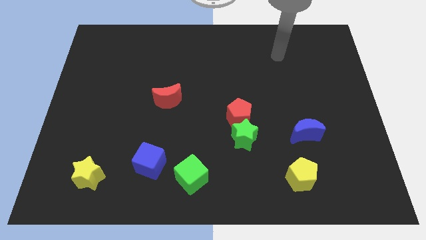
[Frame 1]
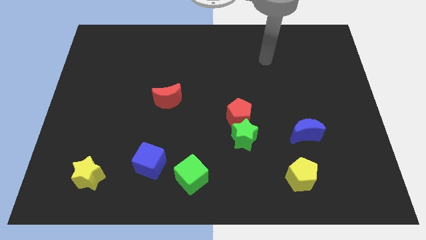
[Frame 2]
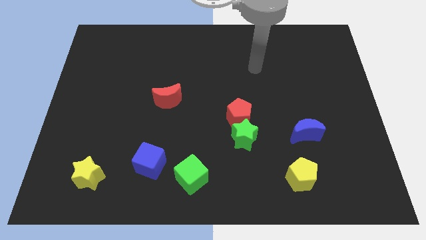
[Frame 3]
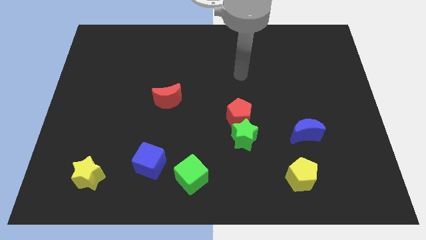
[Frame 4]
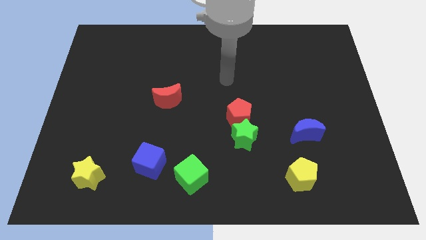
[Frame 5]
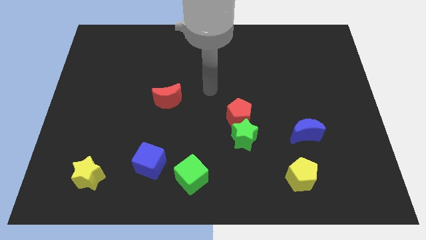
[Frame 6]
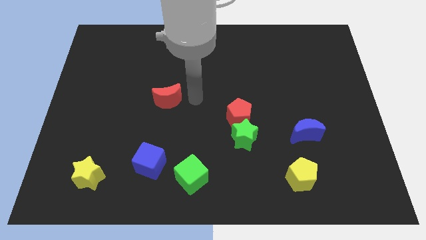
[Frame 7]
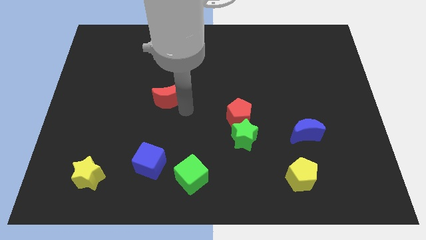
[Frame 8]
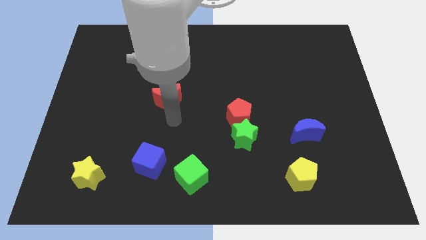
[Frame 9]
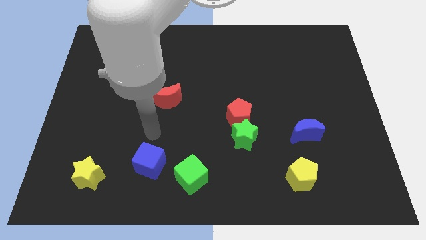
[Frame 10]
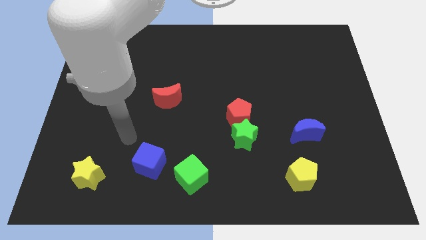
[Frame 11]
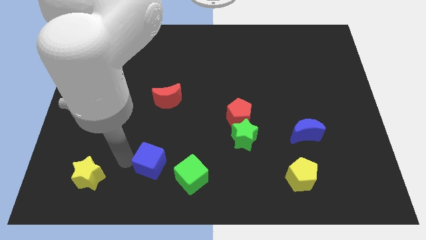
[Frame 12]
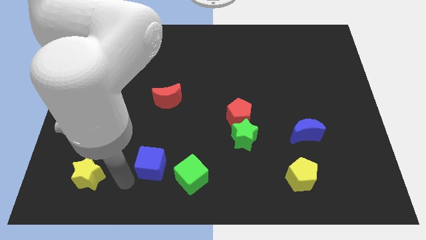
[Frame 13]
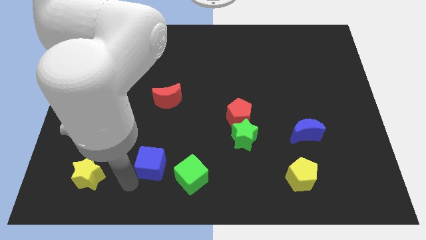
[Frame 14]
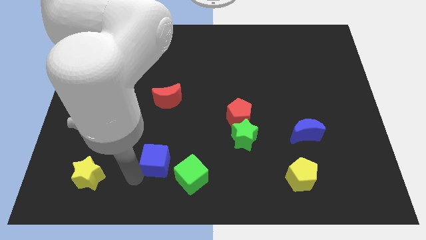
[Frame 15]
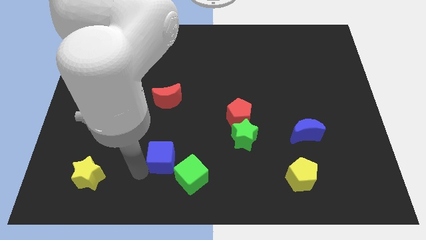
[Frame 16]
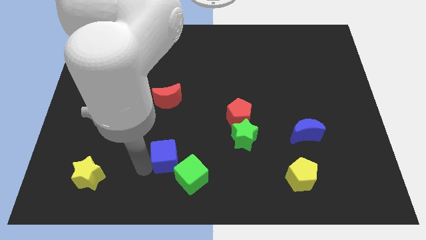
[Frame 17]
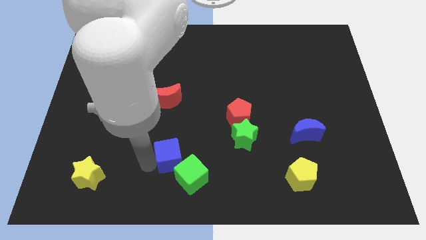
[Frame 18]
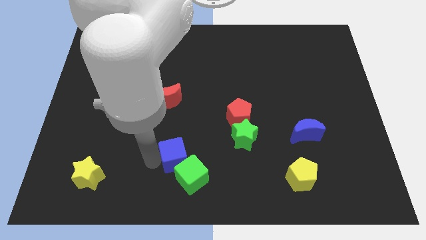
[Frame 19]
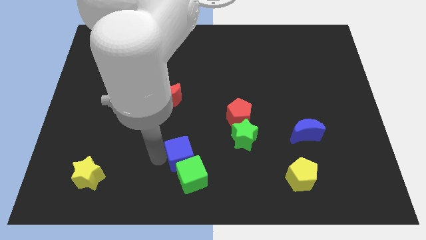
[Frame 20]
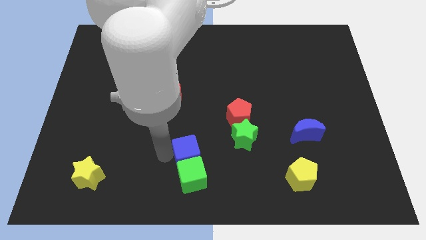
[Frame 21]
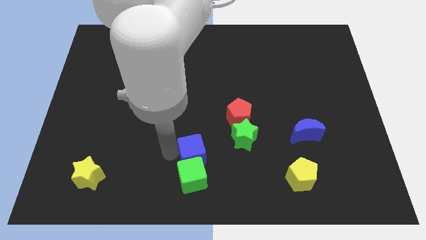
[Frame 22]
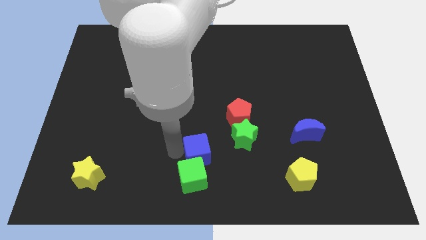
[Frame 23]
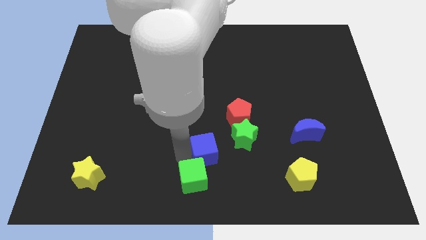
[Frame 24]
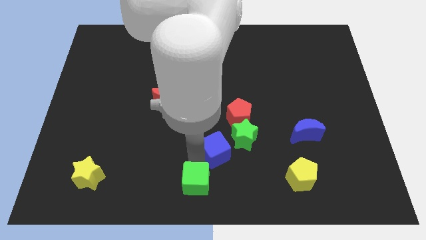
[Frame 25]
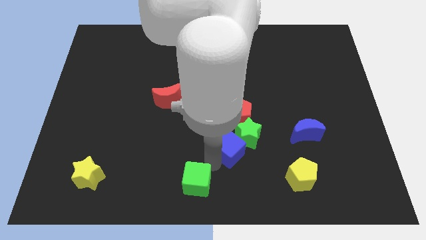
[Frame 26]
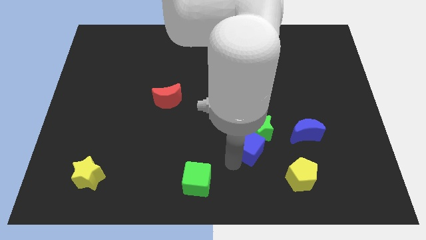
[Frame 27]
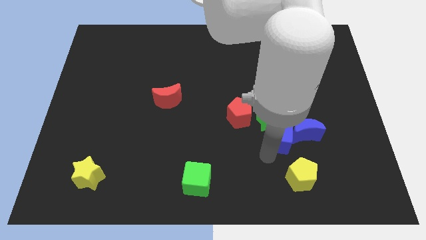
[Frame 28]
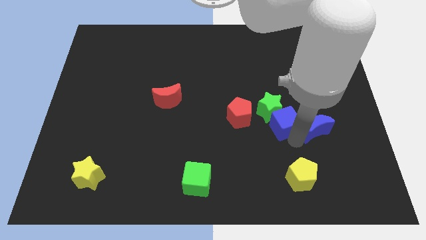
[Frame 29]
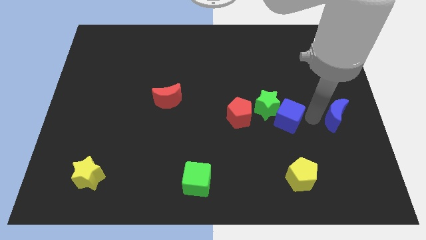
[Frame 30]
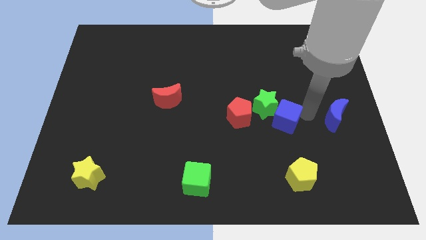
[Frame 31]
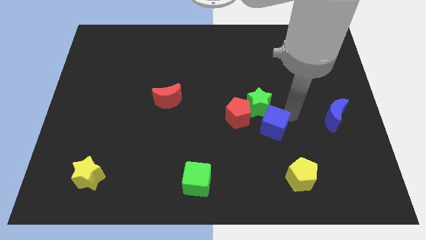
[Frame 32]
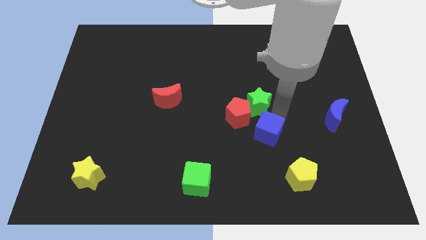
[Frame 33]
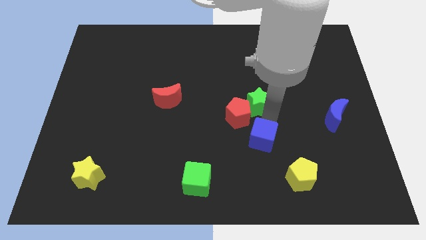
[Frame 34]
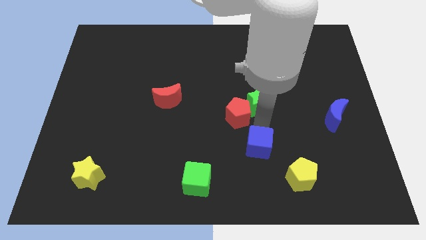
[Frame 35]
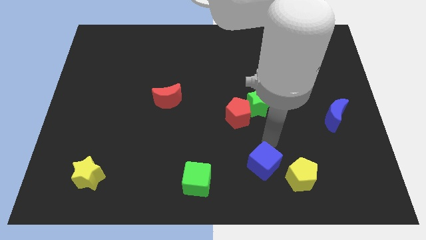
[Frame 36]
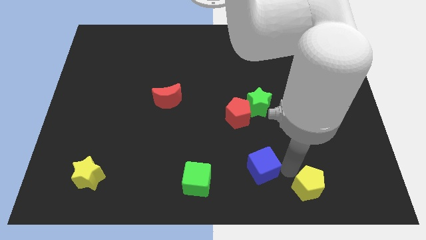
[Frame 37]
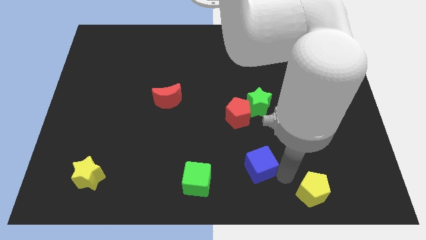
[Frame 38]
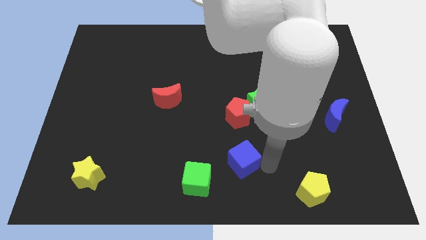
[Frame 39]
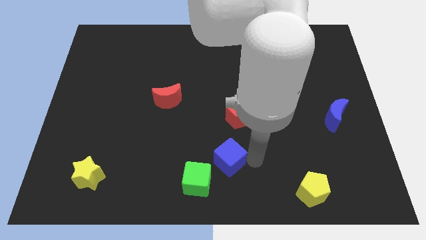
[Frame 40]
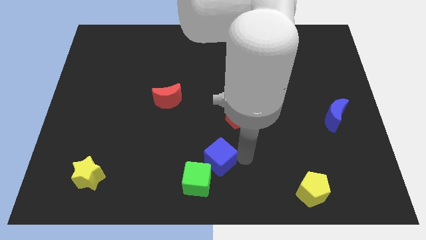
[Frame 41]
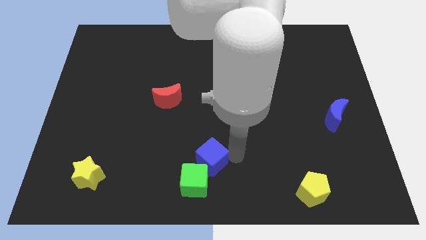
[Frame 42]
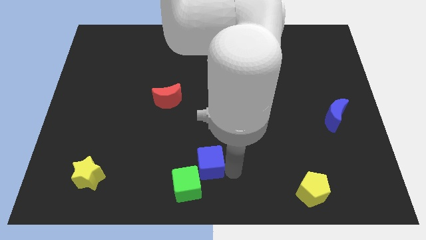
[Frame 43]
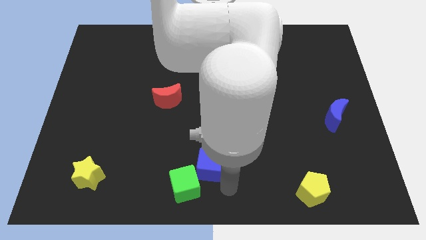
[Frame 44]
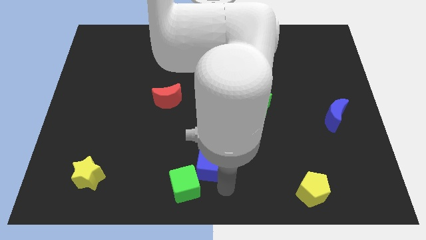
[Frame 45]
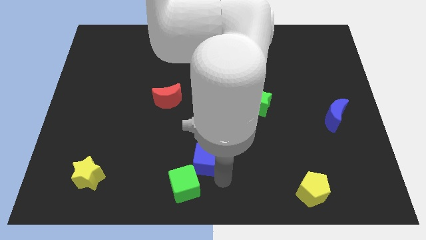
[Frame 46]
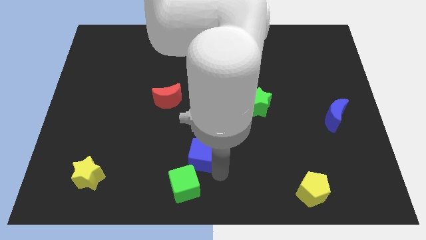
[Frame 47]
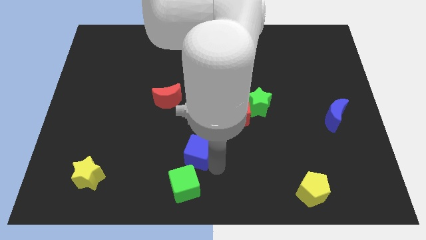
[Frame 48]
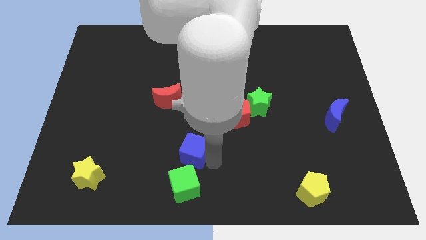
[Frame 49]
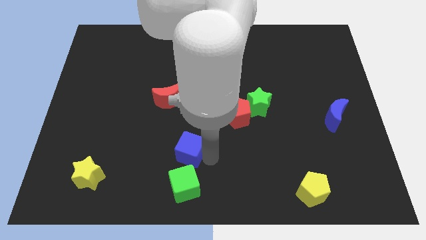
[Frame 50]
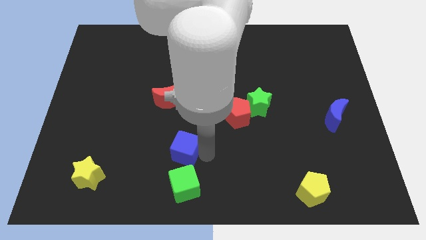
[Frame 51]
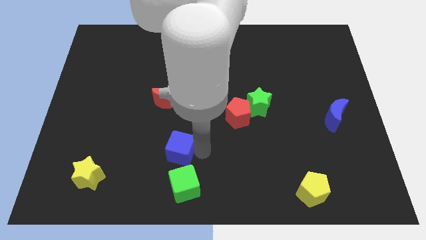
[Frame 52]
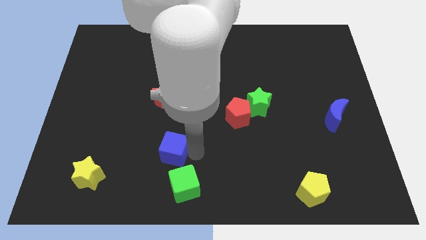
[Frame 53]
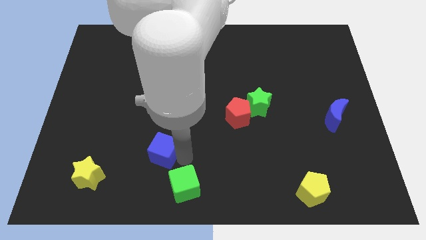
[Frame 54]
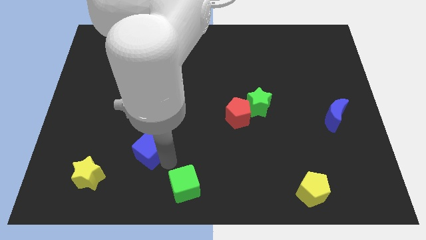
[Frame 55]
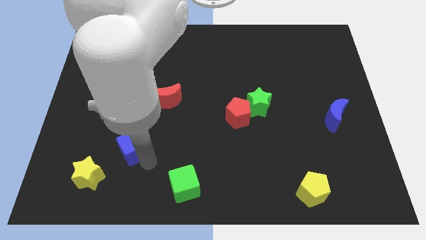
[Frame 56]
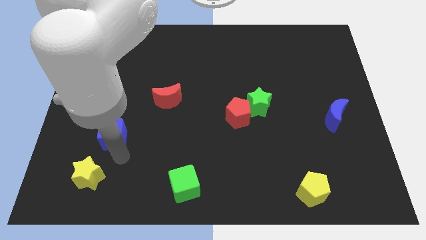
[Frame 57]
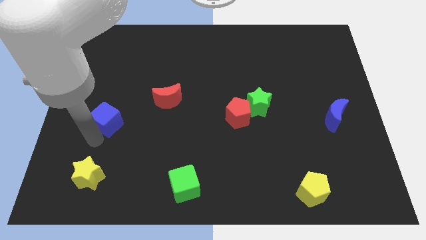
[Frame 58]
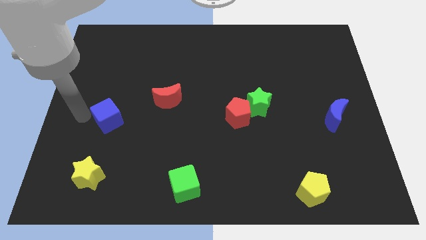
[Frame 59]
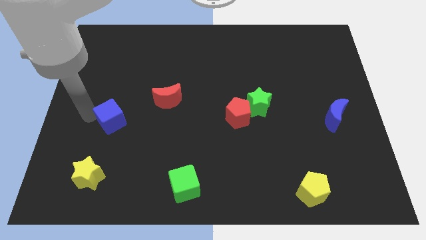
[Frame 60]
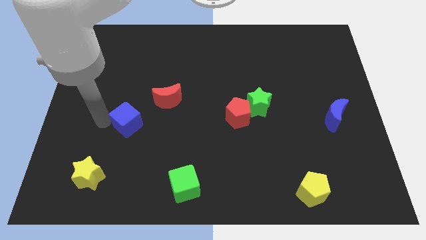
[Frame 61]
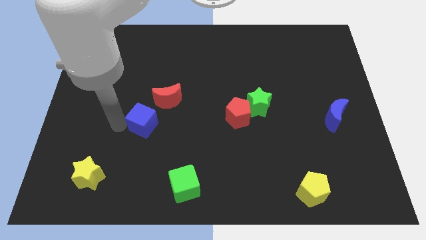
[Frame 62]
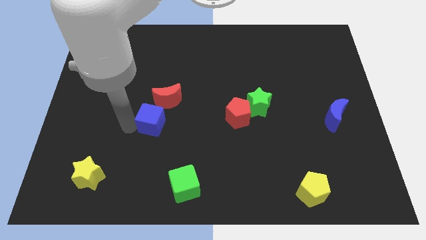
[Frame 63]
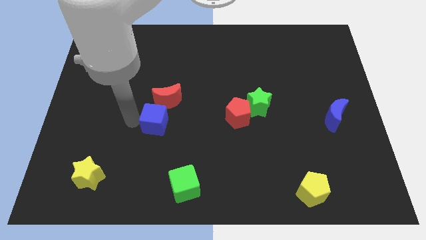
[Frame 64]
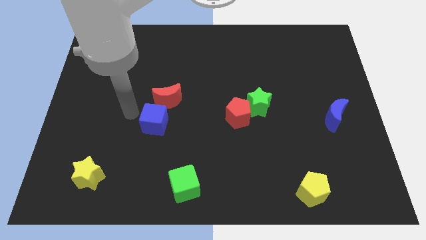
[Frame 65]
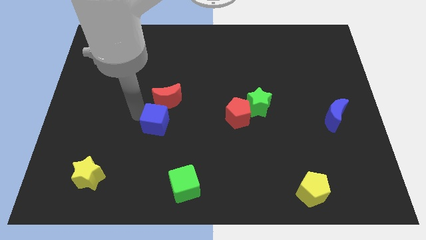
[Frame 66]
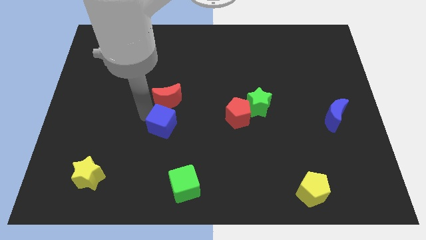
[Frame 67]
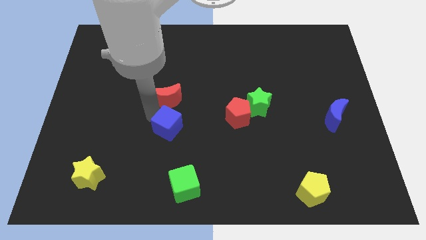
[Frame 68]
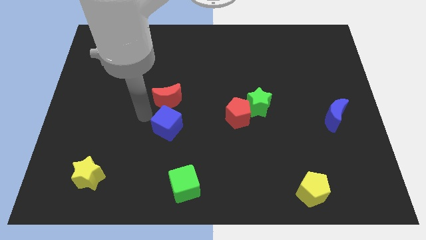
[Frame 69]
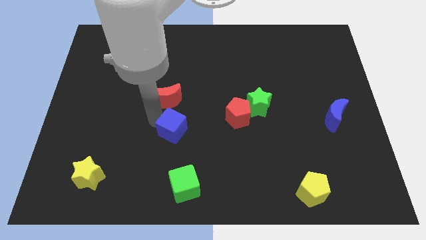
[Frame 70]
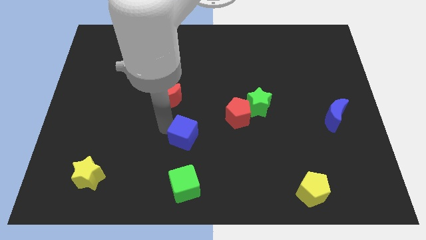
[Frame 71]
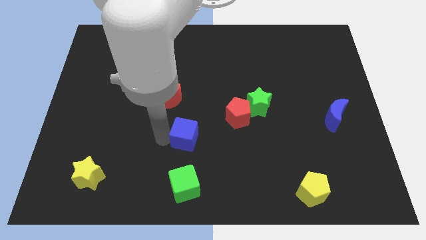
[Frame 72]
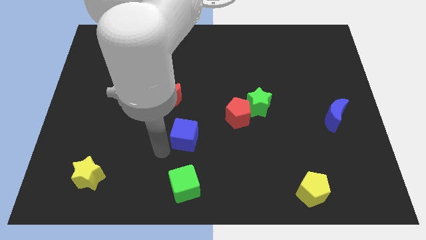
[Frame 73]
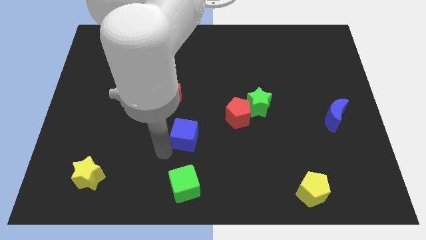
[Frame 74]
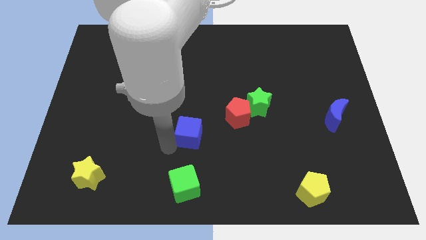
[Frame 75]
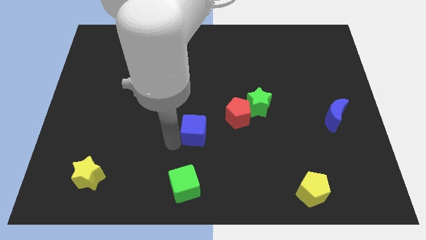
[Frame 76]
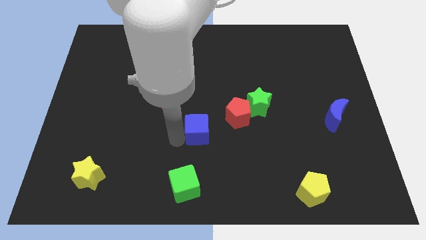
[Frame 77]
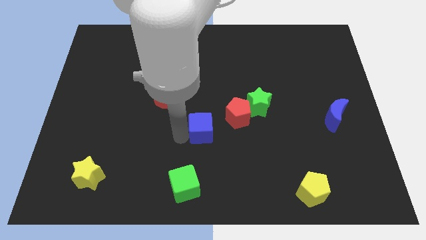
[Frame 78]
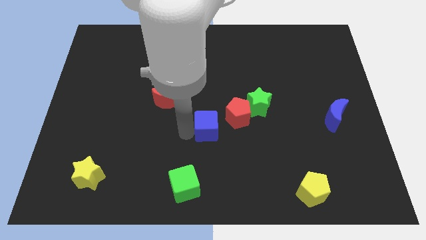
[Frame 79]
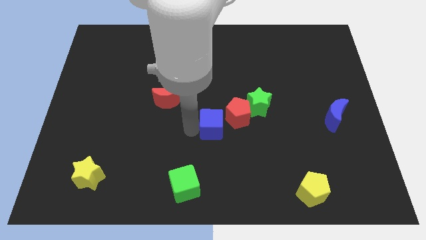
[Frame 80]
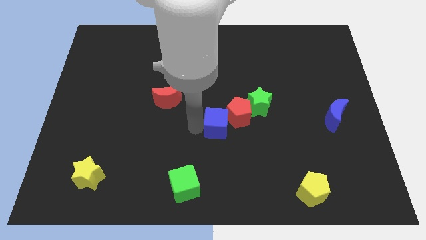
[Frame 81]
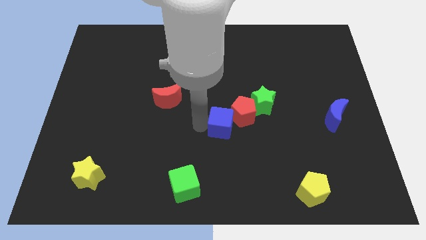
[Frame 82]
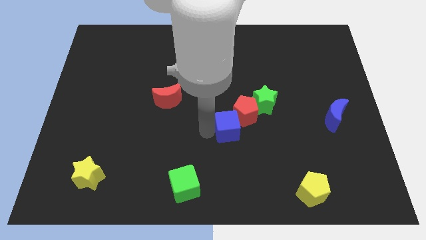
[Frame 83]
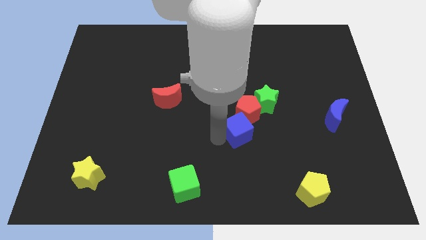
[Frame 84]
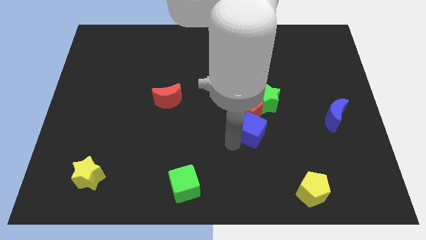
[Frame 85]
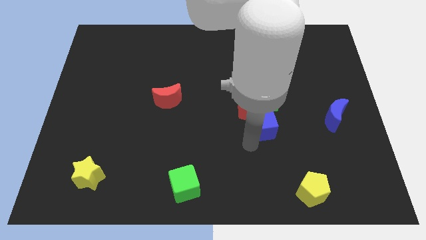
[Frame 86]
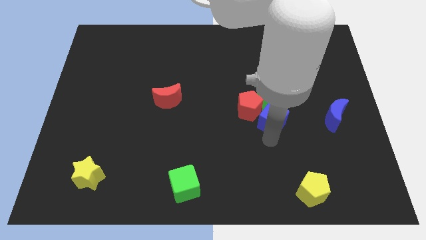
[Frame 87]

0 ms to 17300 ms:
move the blue cube up and right
